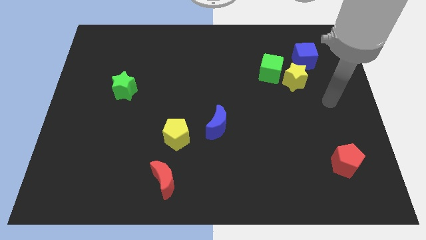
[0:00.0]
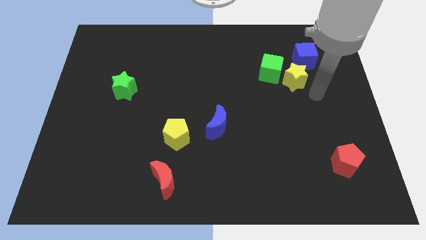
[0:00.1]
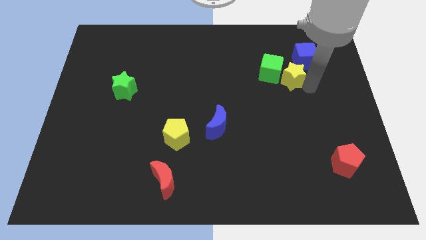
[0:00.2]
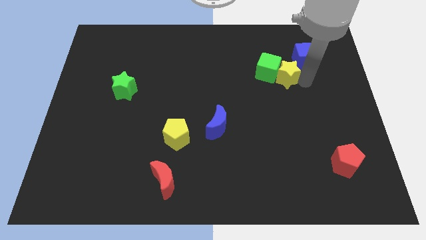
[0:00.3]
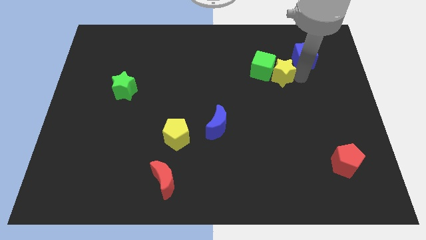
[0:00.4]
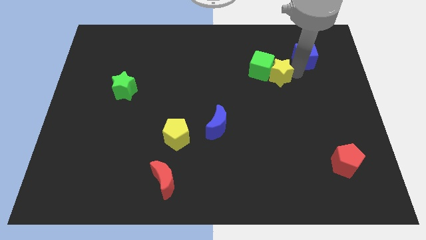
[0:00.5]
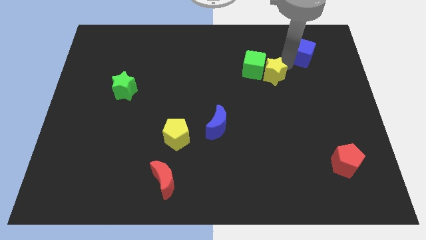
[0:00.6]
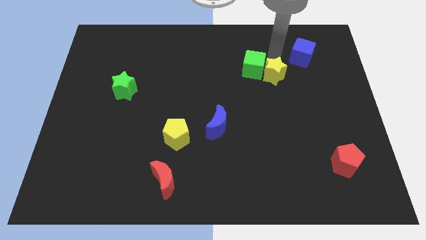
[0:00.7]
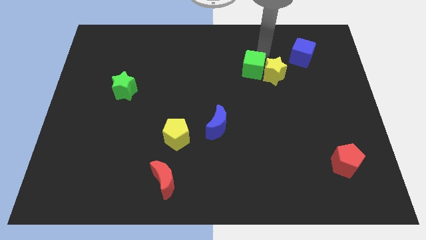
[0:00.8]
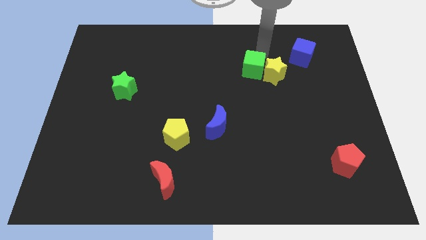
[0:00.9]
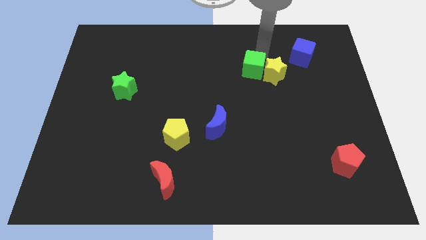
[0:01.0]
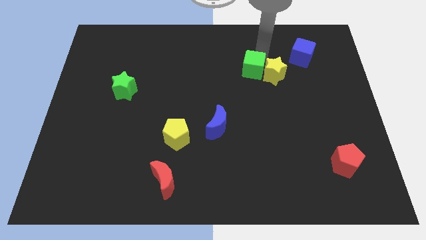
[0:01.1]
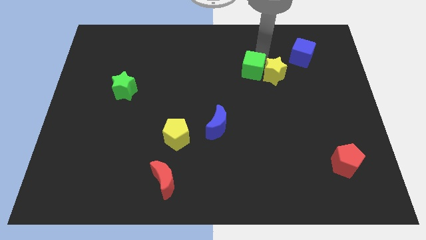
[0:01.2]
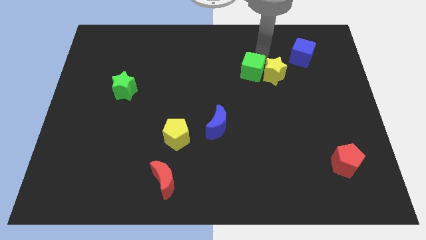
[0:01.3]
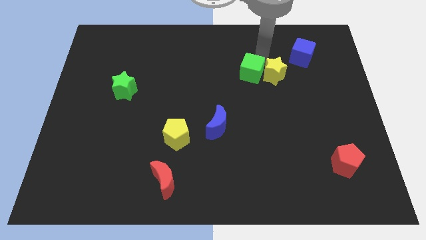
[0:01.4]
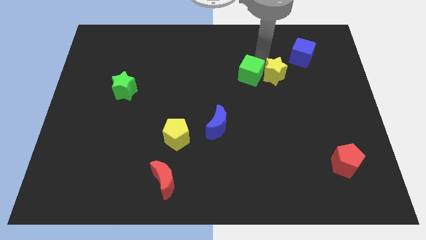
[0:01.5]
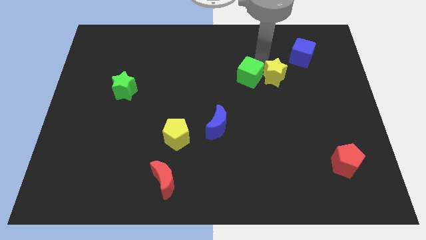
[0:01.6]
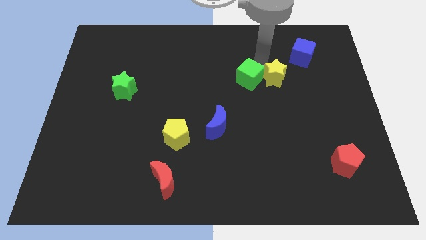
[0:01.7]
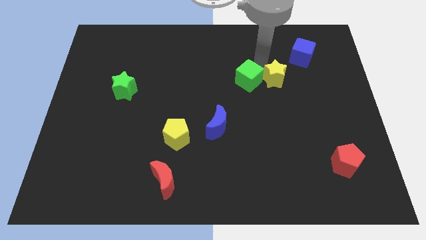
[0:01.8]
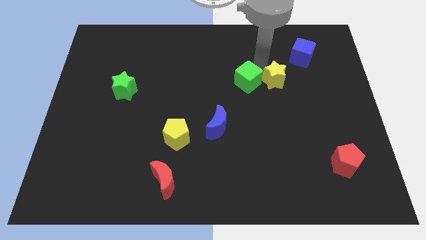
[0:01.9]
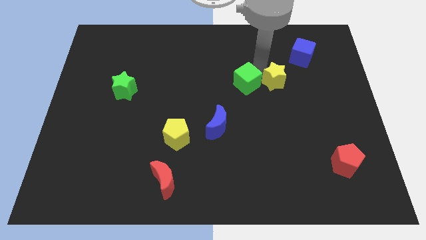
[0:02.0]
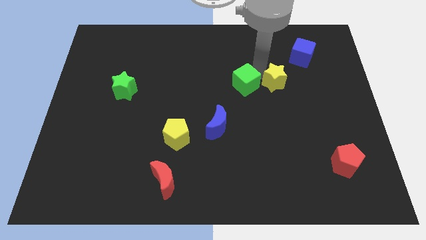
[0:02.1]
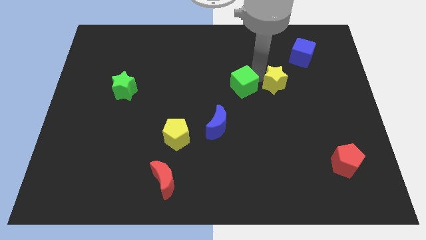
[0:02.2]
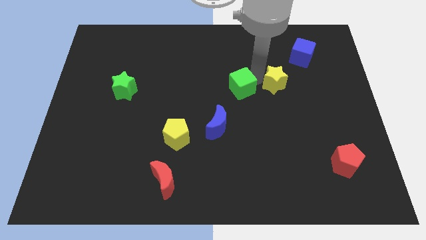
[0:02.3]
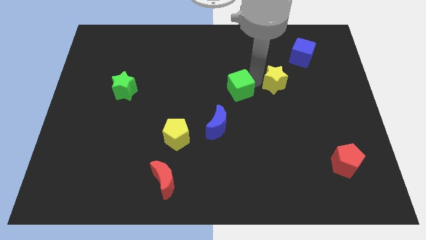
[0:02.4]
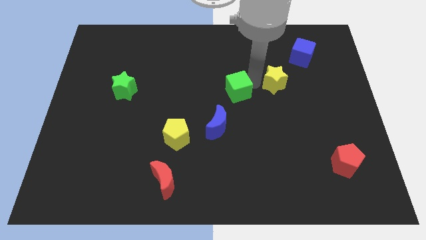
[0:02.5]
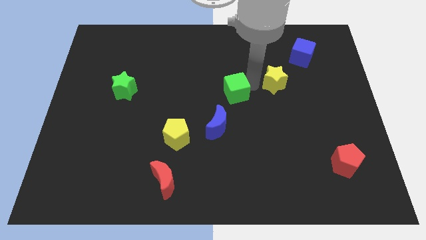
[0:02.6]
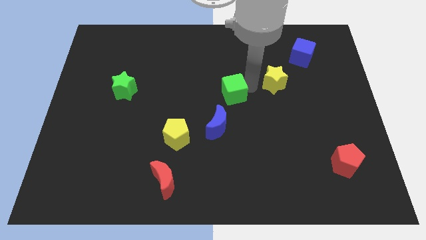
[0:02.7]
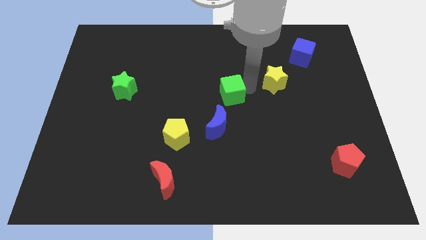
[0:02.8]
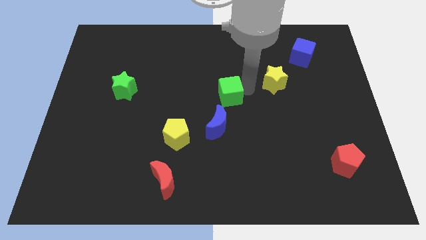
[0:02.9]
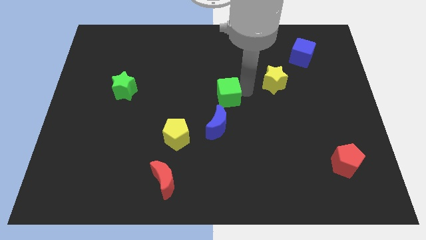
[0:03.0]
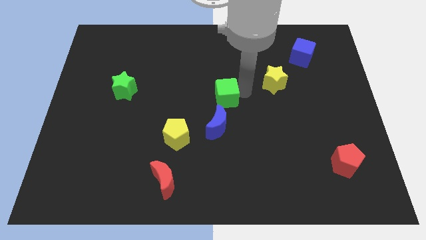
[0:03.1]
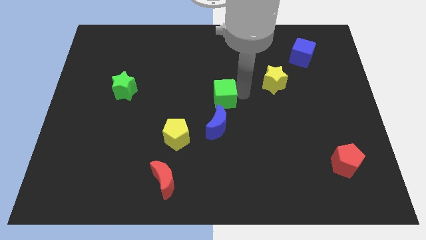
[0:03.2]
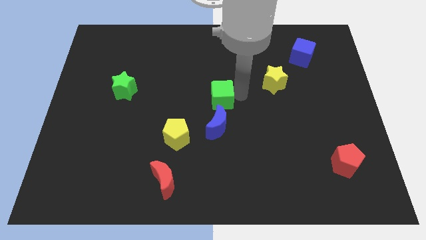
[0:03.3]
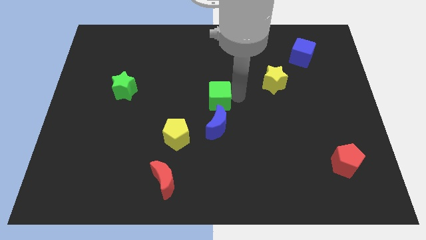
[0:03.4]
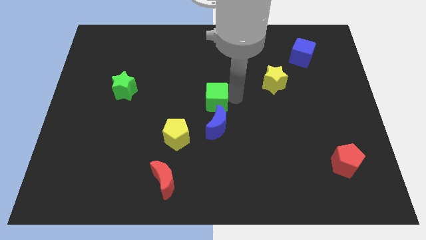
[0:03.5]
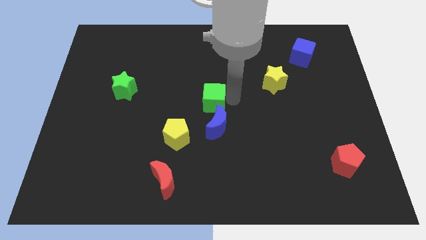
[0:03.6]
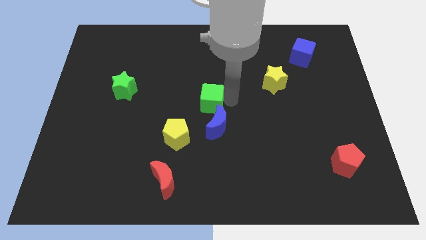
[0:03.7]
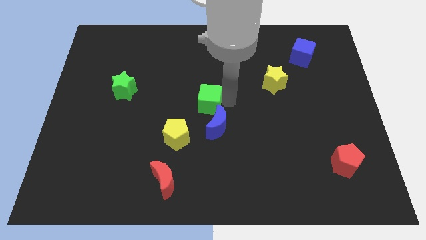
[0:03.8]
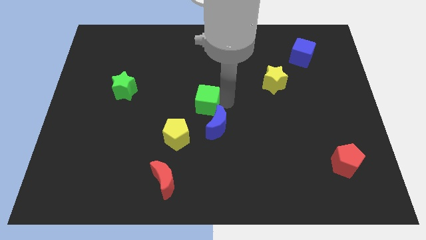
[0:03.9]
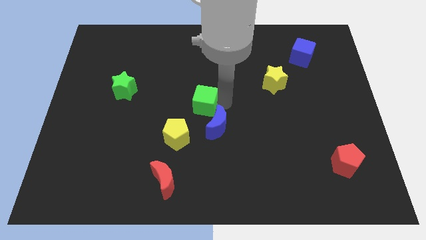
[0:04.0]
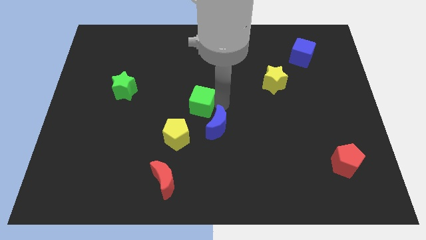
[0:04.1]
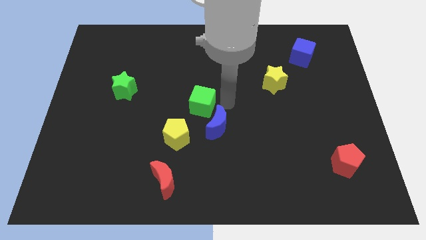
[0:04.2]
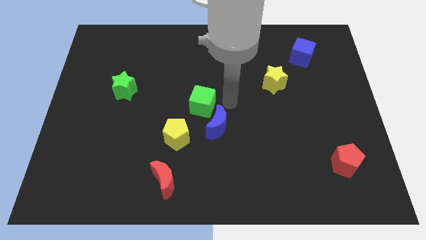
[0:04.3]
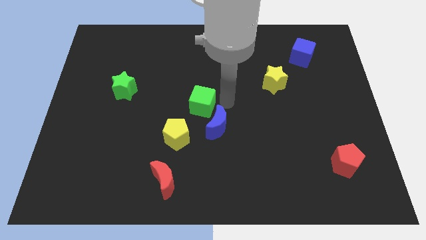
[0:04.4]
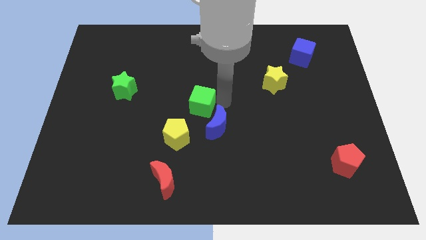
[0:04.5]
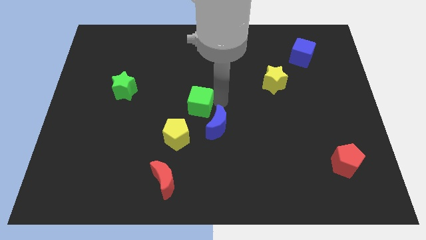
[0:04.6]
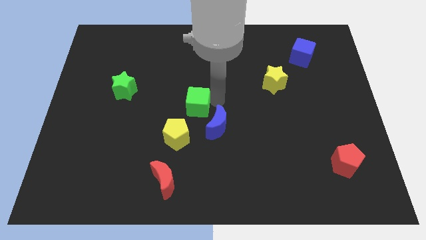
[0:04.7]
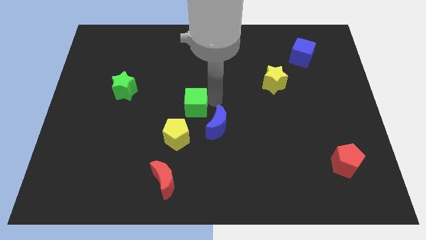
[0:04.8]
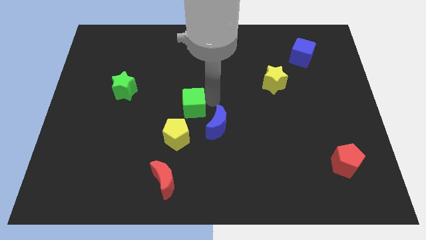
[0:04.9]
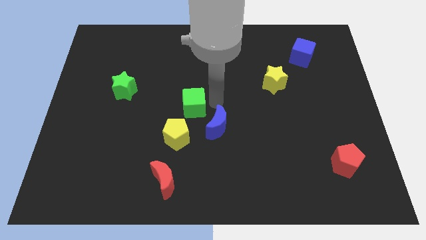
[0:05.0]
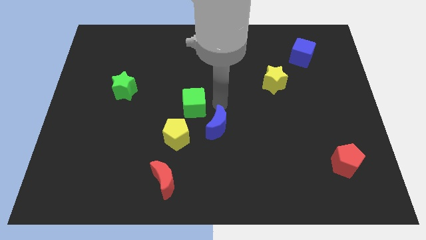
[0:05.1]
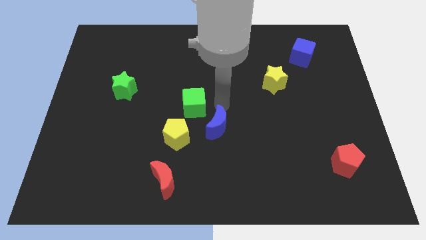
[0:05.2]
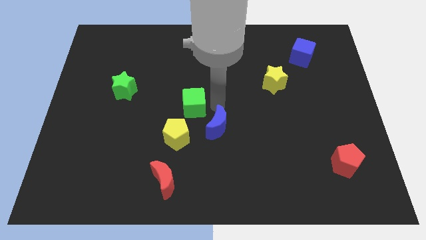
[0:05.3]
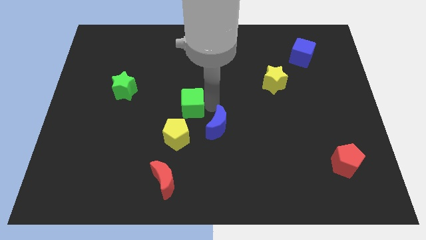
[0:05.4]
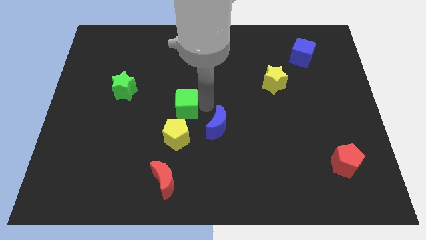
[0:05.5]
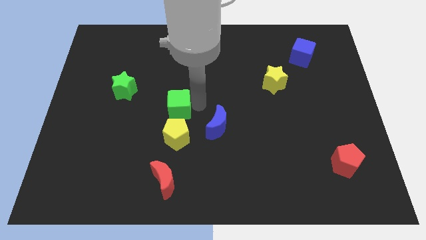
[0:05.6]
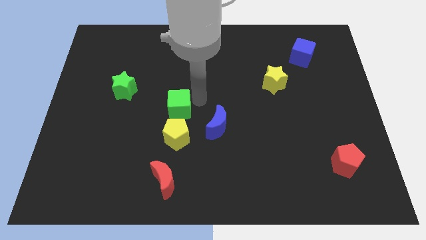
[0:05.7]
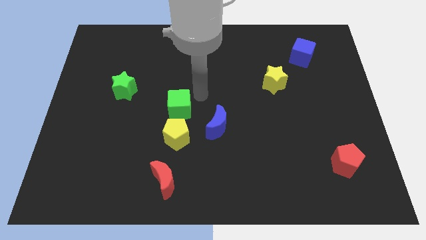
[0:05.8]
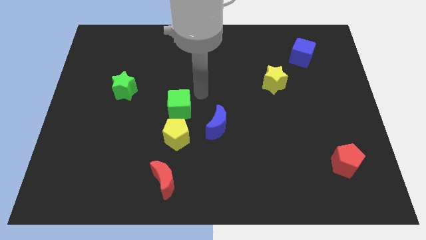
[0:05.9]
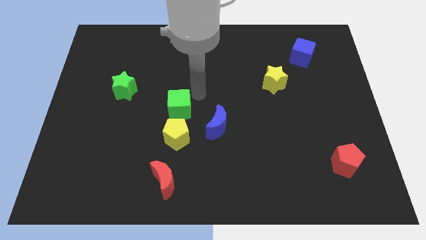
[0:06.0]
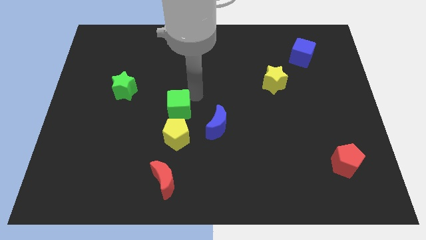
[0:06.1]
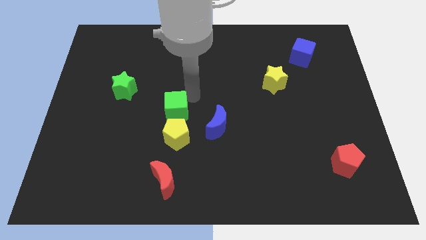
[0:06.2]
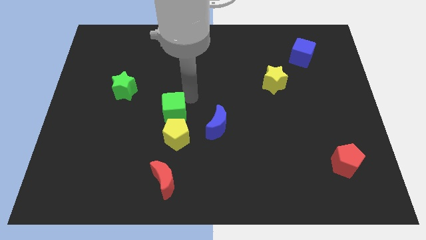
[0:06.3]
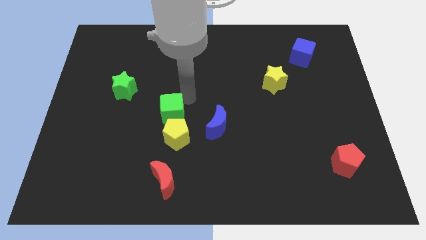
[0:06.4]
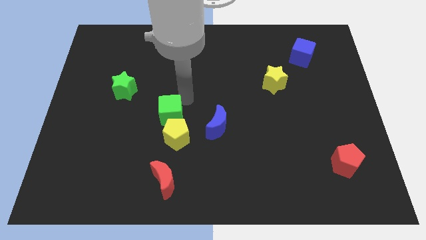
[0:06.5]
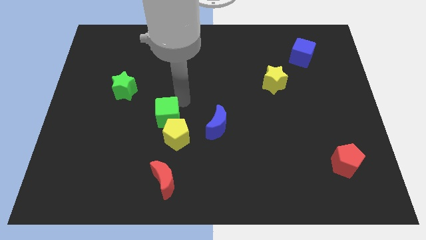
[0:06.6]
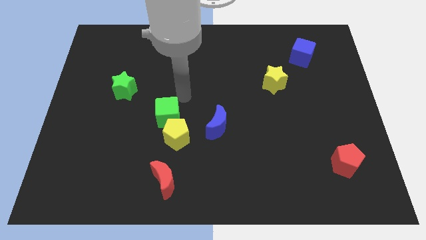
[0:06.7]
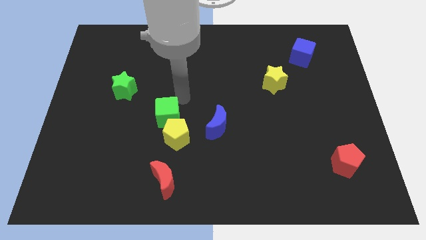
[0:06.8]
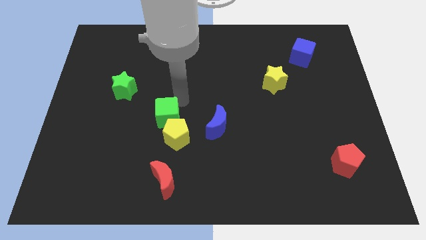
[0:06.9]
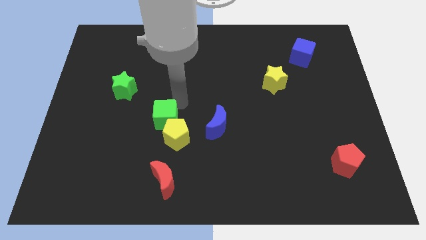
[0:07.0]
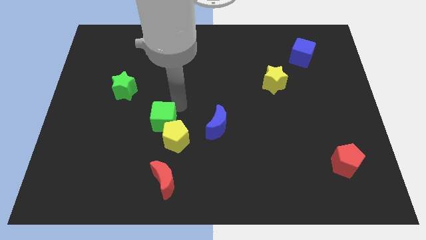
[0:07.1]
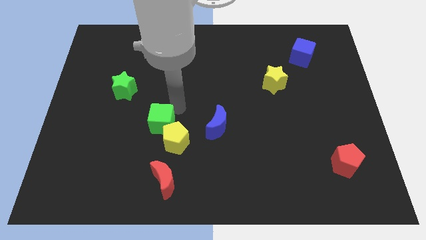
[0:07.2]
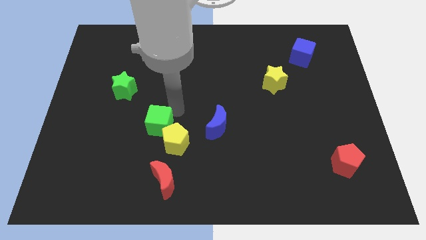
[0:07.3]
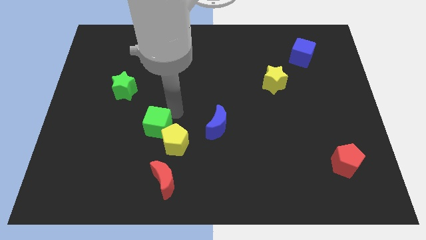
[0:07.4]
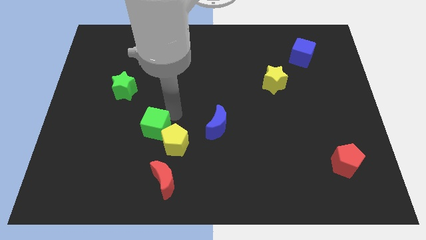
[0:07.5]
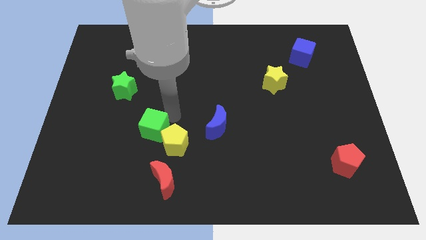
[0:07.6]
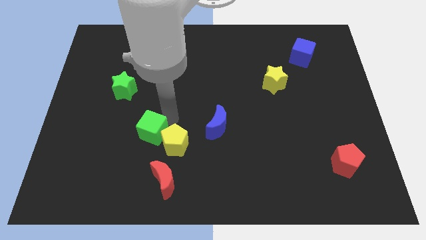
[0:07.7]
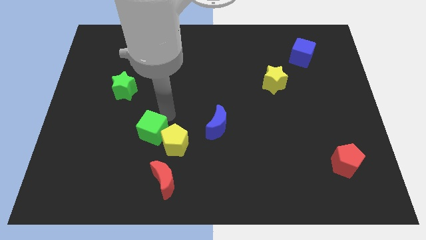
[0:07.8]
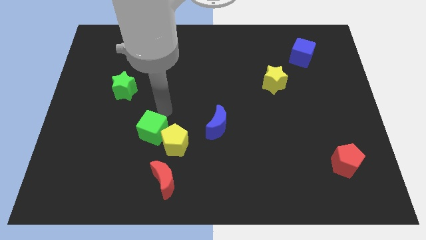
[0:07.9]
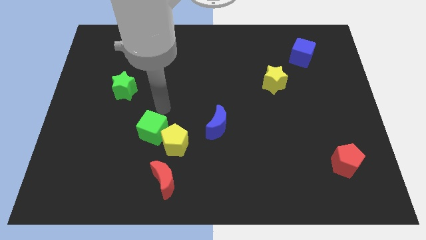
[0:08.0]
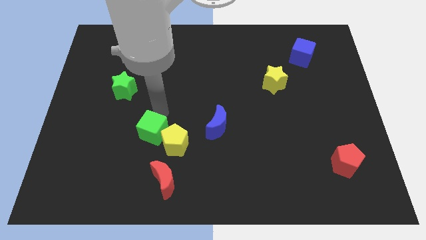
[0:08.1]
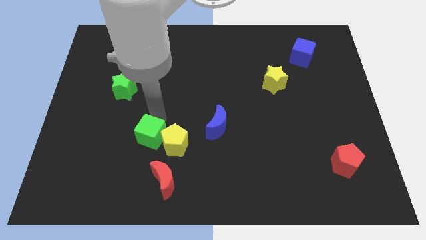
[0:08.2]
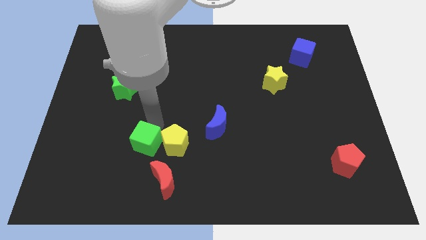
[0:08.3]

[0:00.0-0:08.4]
push the green cube to the top left of the red moon
